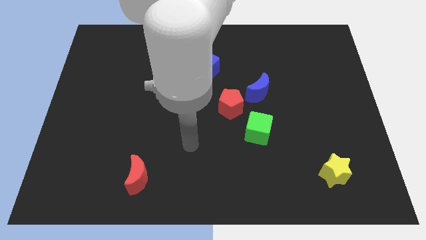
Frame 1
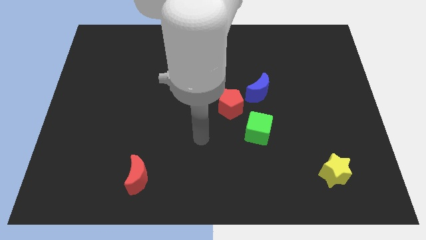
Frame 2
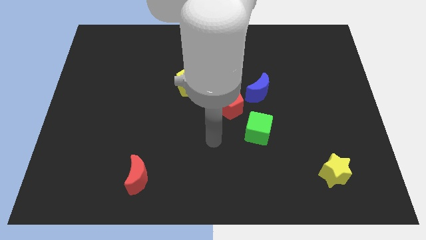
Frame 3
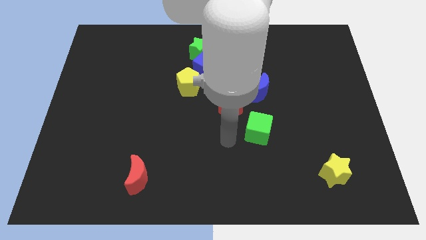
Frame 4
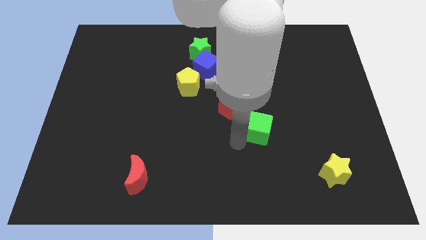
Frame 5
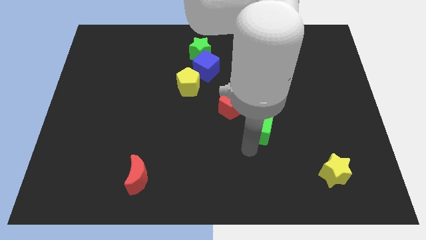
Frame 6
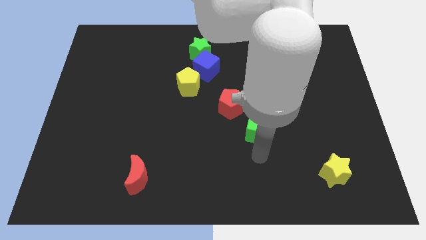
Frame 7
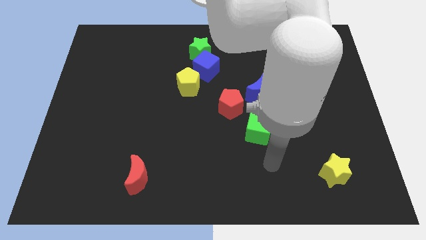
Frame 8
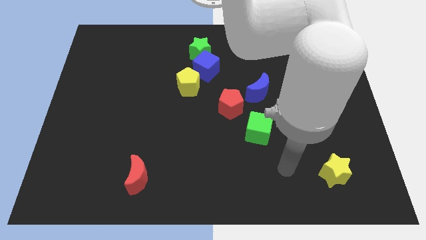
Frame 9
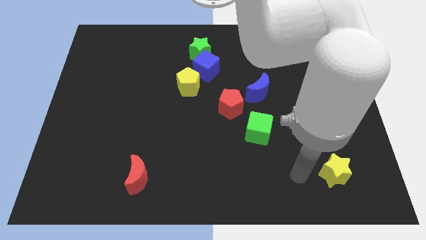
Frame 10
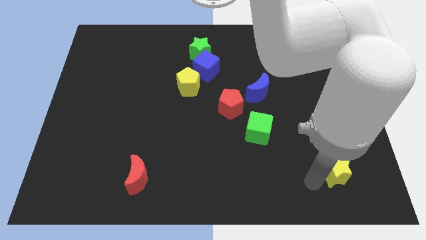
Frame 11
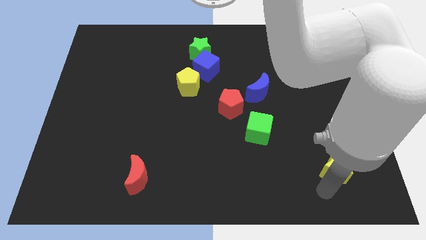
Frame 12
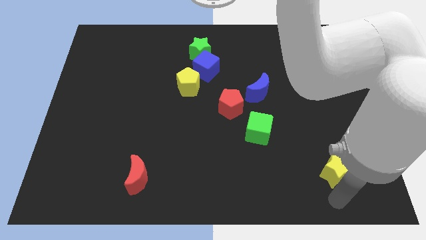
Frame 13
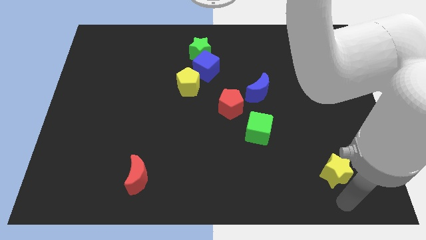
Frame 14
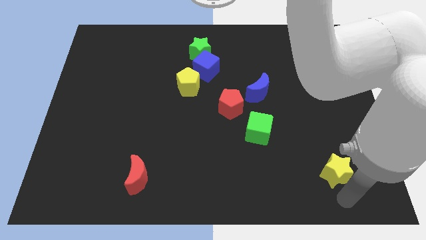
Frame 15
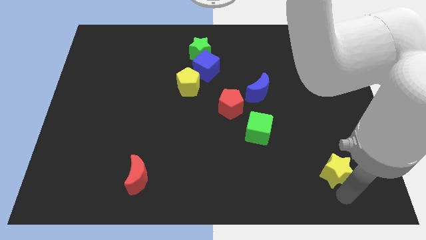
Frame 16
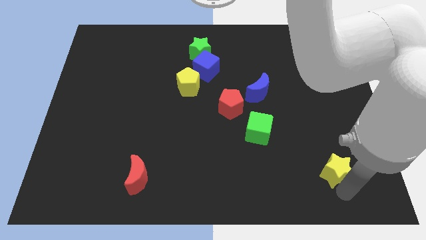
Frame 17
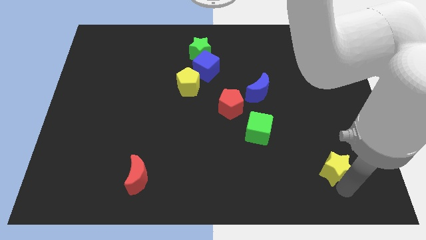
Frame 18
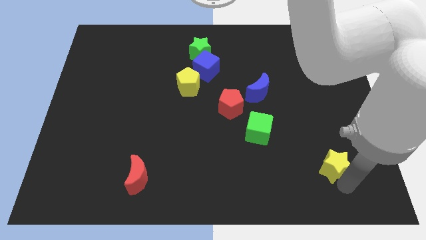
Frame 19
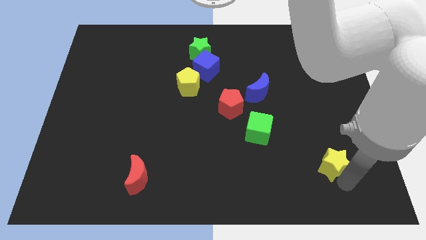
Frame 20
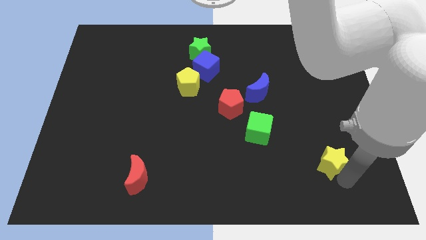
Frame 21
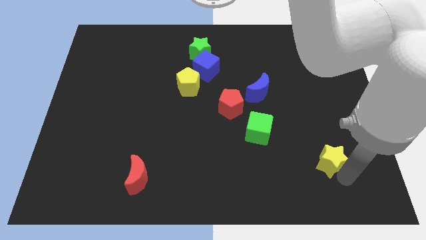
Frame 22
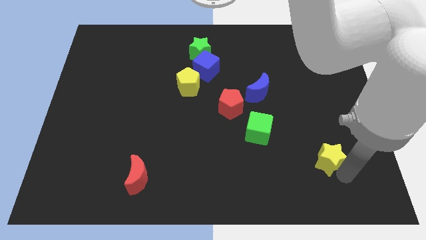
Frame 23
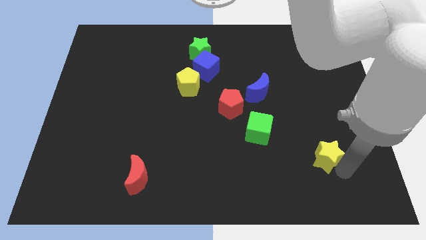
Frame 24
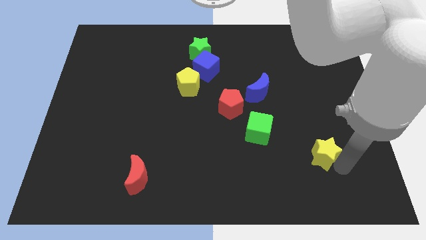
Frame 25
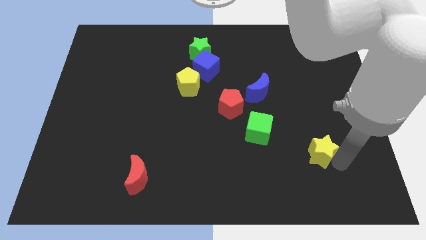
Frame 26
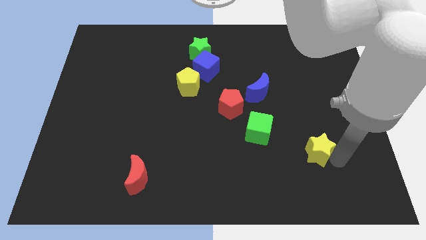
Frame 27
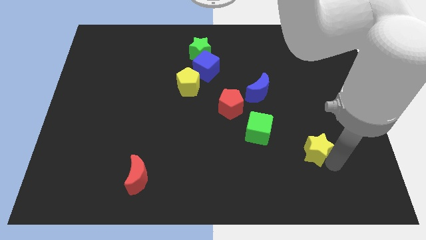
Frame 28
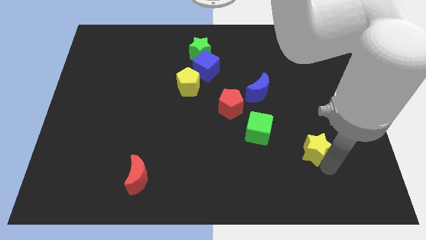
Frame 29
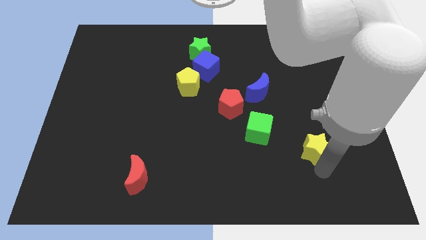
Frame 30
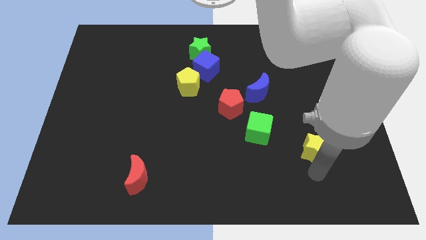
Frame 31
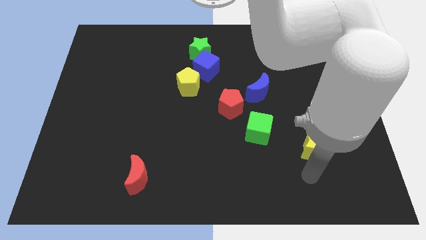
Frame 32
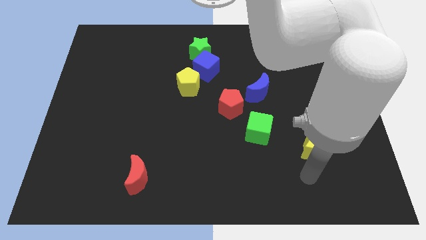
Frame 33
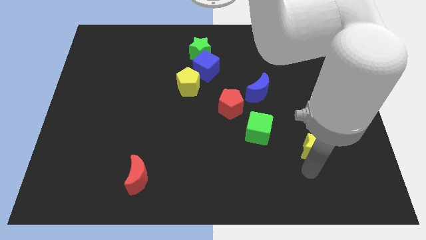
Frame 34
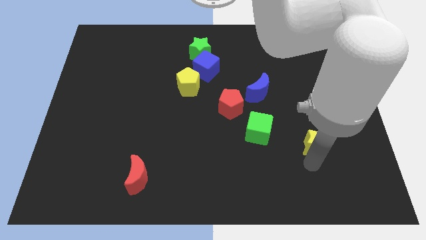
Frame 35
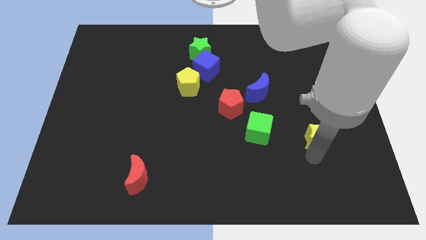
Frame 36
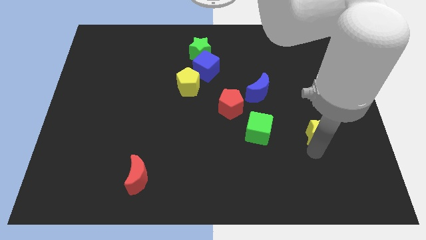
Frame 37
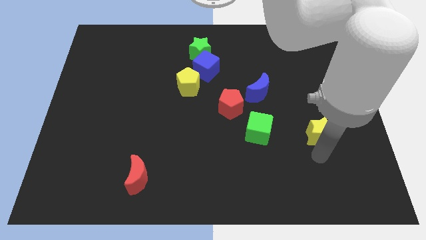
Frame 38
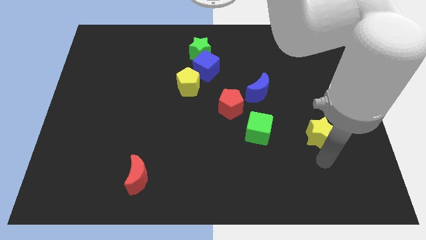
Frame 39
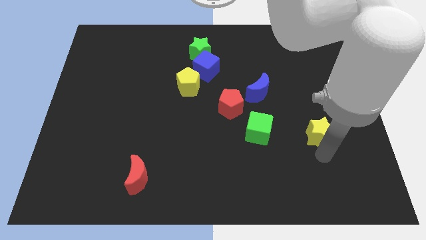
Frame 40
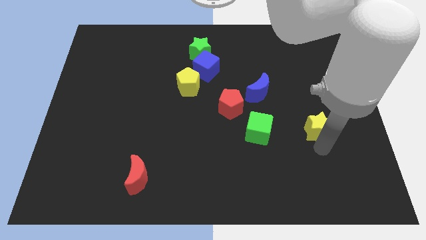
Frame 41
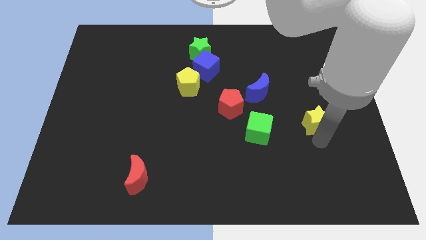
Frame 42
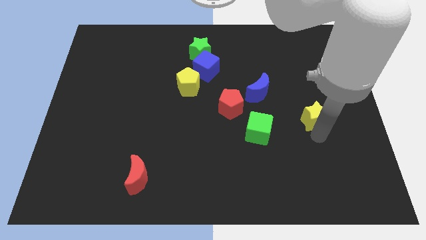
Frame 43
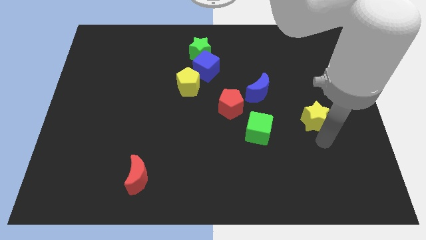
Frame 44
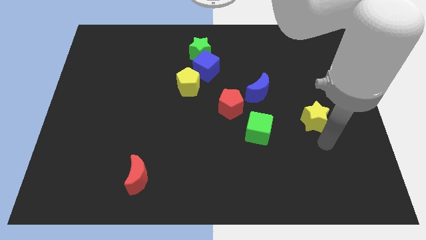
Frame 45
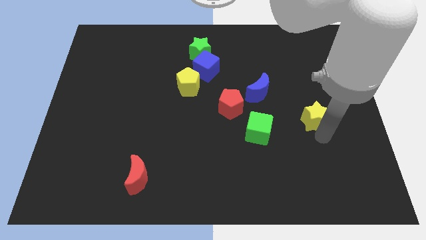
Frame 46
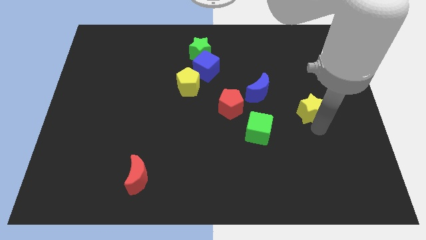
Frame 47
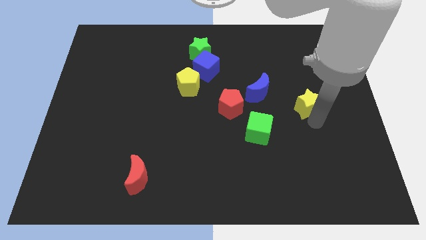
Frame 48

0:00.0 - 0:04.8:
push the yellow star to the right of the blue moon

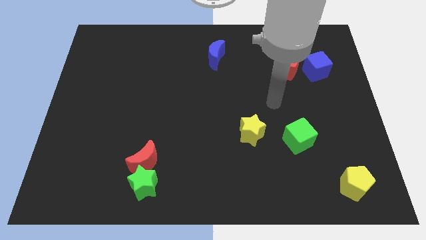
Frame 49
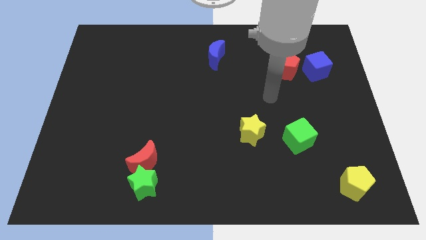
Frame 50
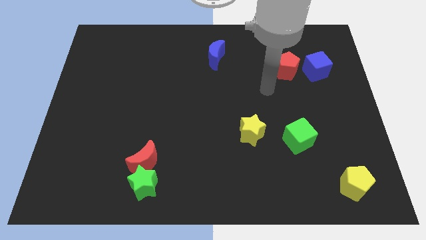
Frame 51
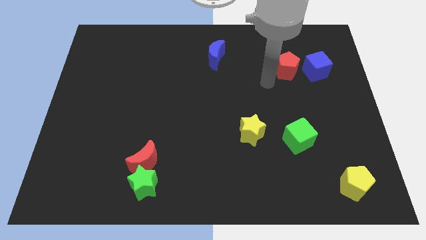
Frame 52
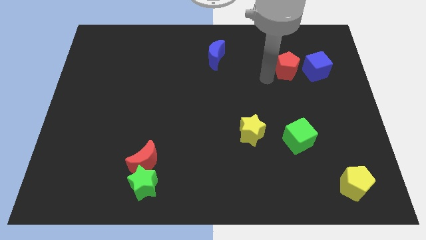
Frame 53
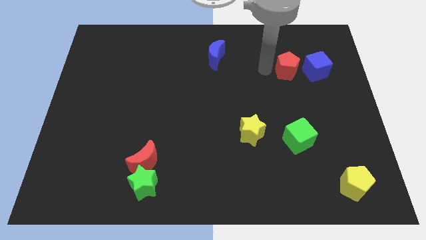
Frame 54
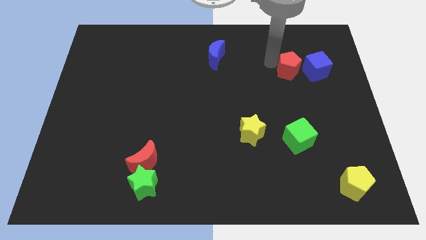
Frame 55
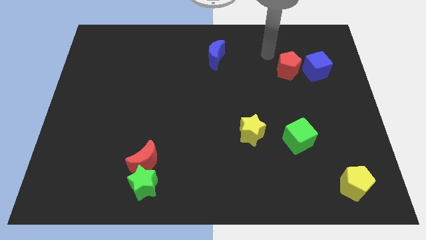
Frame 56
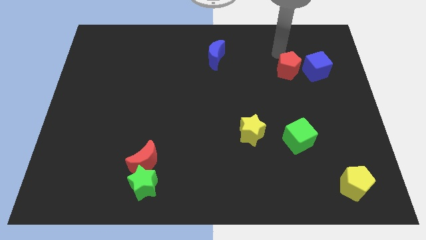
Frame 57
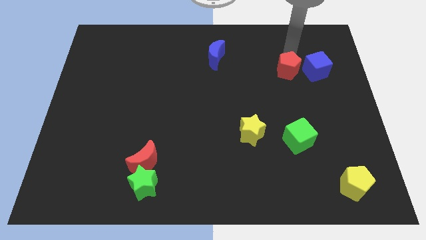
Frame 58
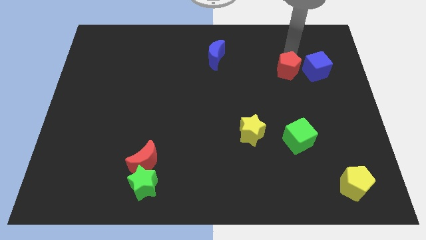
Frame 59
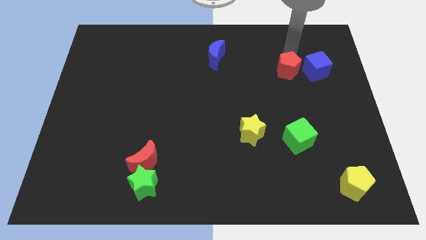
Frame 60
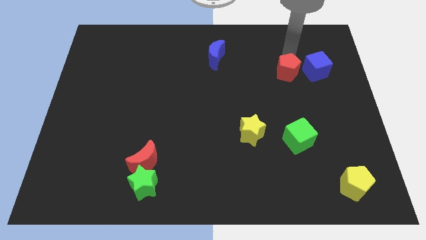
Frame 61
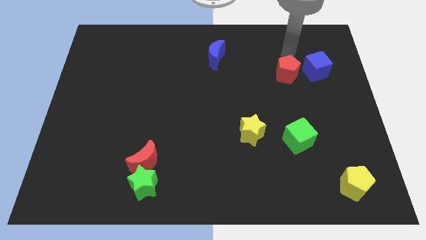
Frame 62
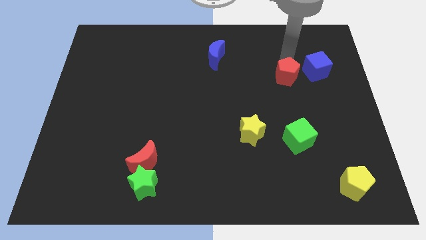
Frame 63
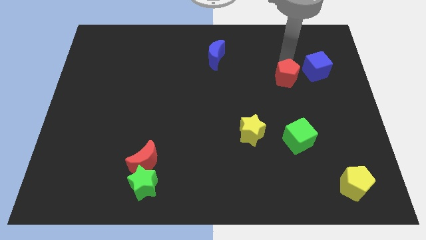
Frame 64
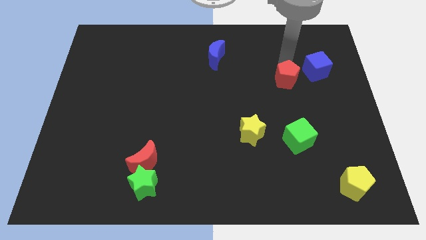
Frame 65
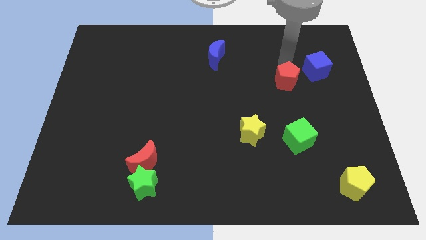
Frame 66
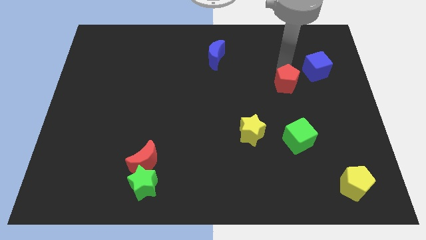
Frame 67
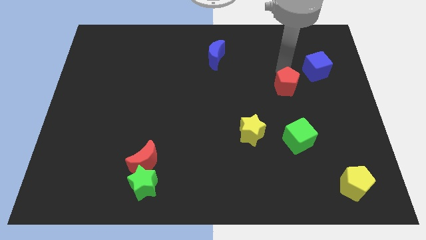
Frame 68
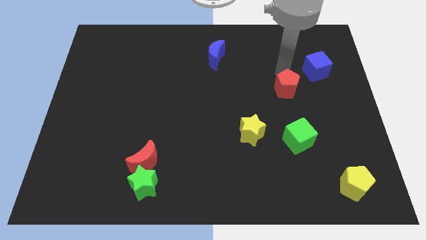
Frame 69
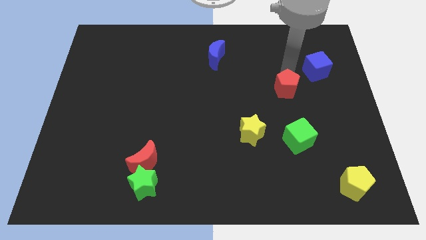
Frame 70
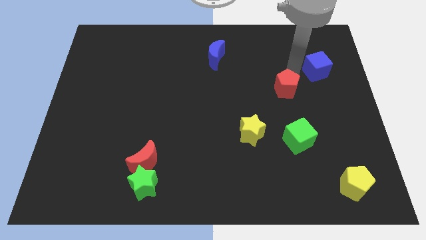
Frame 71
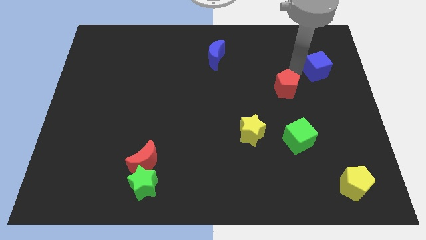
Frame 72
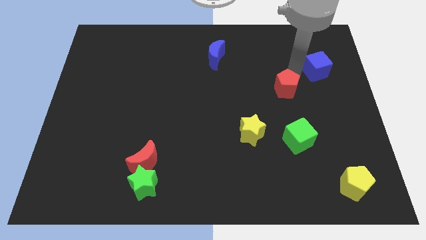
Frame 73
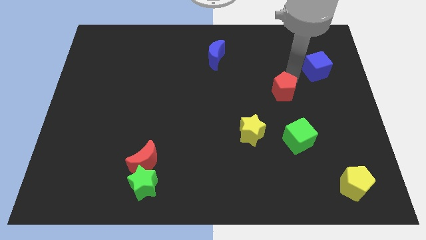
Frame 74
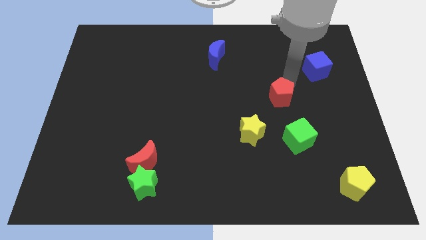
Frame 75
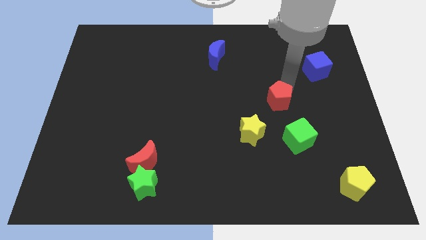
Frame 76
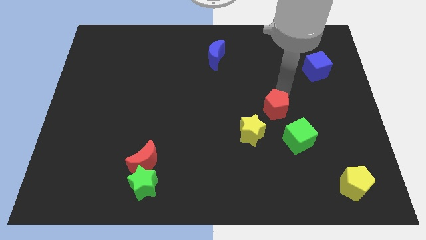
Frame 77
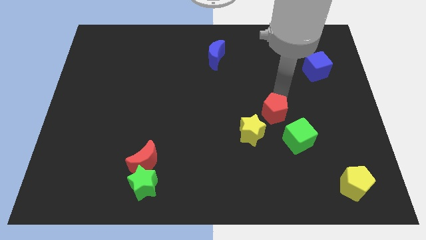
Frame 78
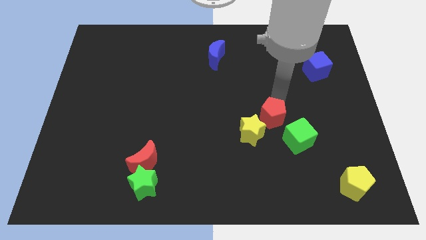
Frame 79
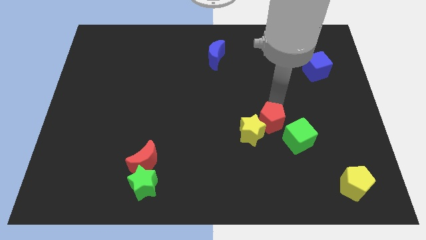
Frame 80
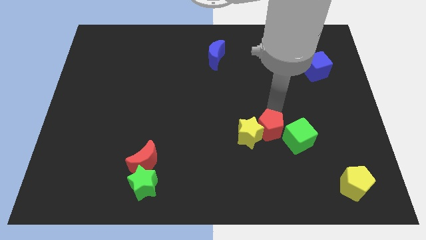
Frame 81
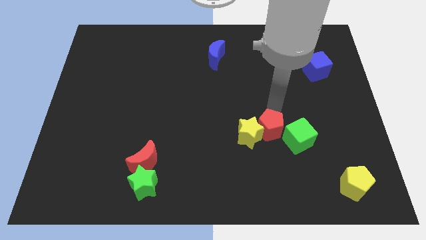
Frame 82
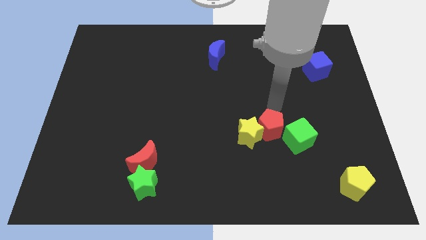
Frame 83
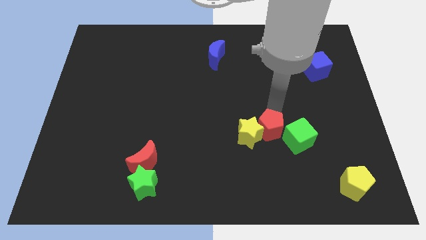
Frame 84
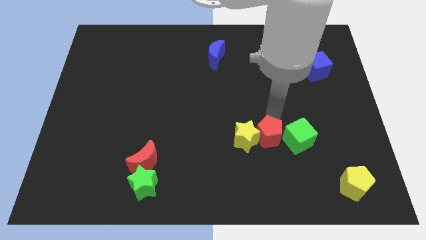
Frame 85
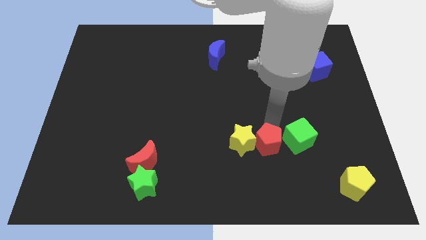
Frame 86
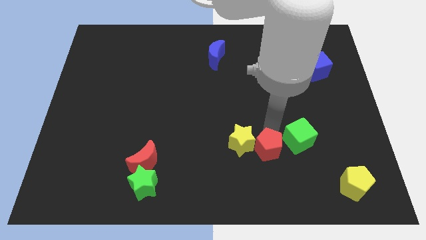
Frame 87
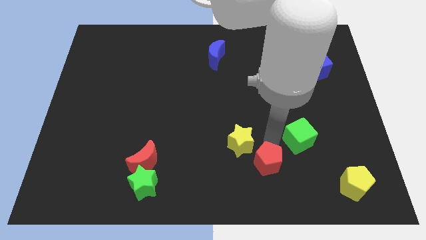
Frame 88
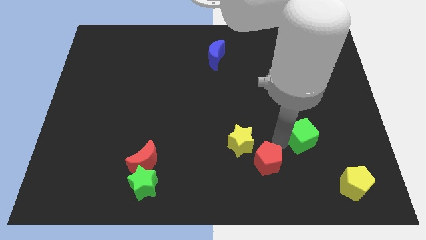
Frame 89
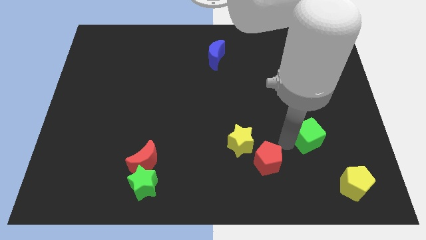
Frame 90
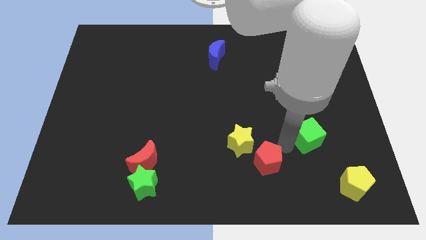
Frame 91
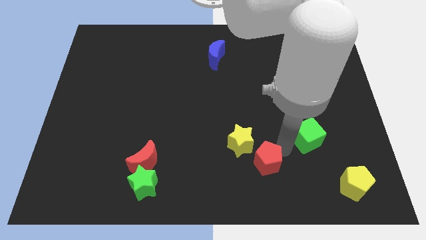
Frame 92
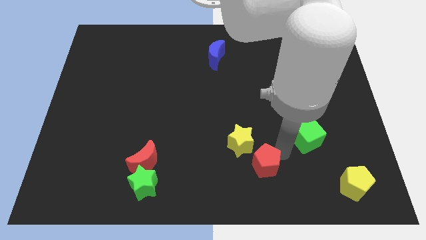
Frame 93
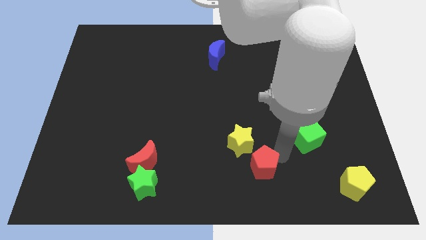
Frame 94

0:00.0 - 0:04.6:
push the red pentagon to the bottom side of the yellow star
